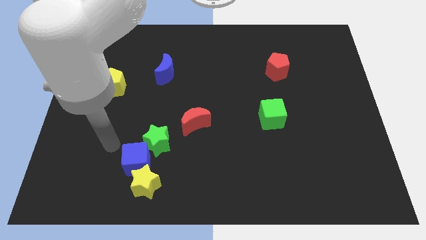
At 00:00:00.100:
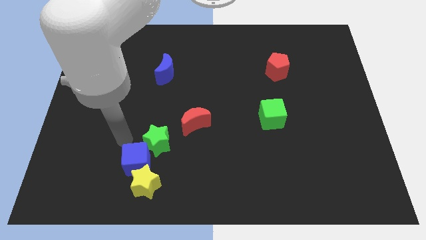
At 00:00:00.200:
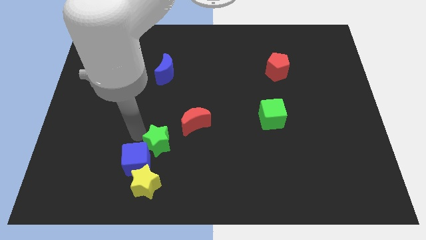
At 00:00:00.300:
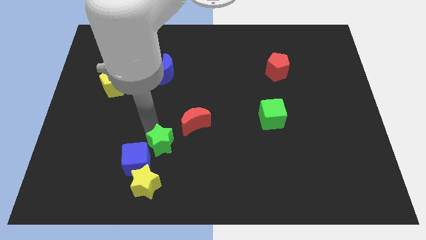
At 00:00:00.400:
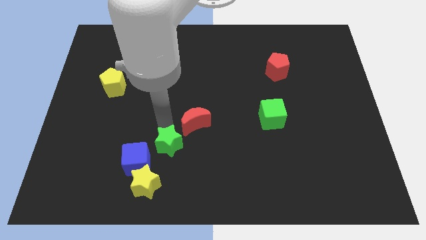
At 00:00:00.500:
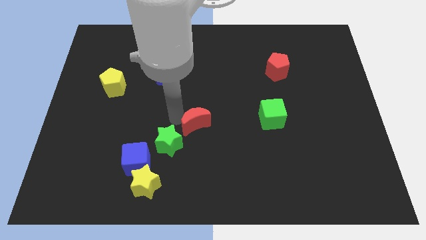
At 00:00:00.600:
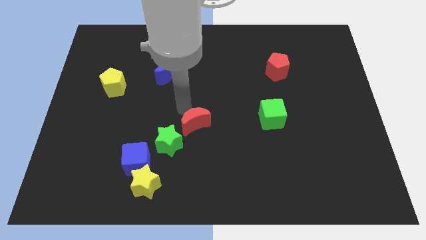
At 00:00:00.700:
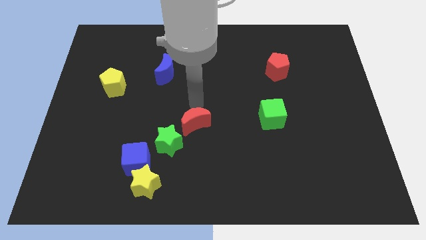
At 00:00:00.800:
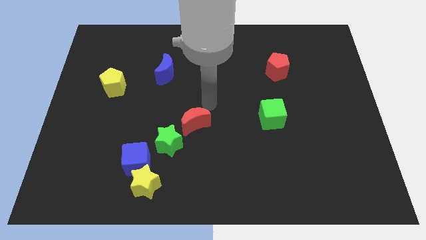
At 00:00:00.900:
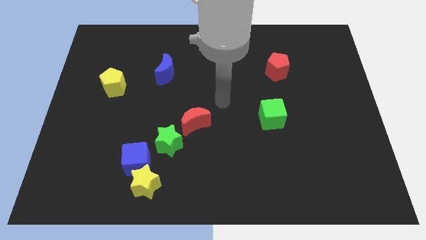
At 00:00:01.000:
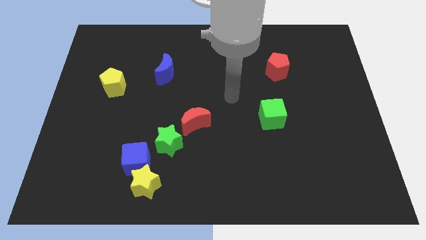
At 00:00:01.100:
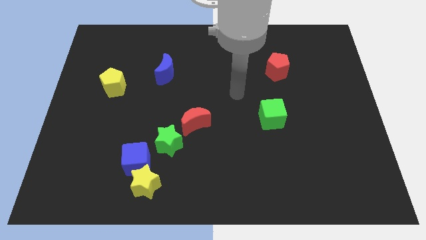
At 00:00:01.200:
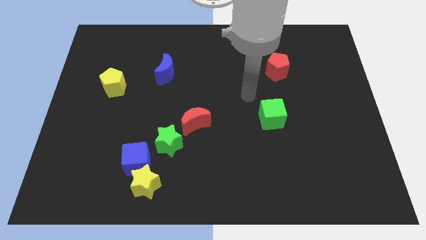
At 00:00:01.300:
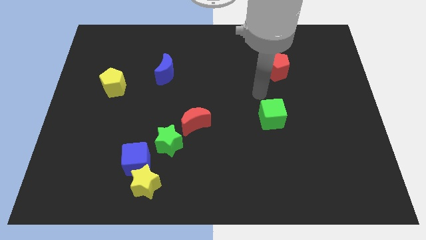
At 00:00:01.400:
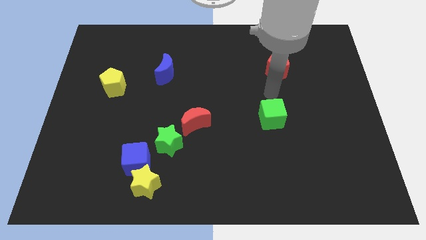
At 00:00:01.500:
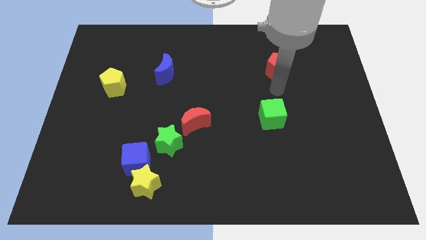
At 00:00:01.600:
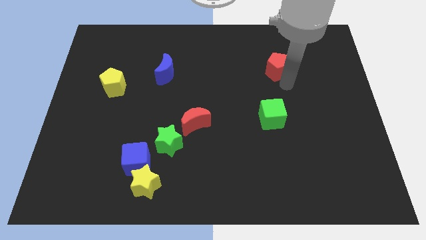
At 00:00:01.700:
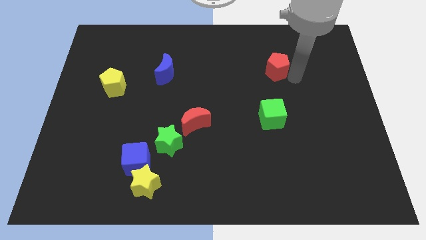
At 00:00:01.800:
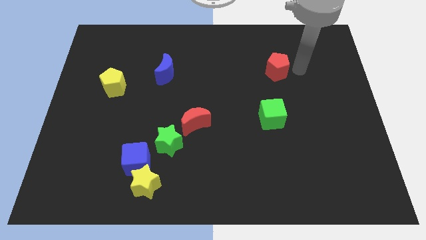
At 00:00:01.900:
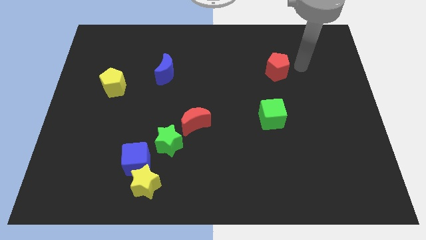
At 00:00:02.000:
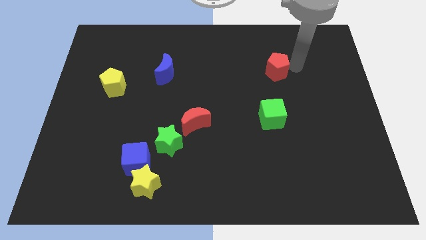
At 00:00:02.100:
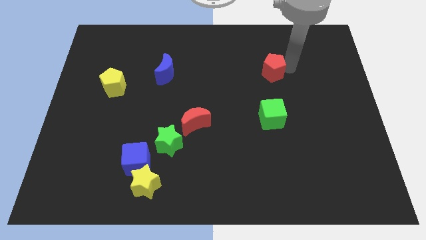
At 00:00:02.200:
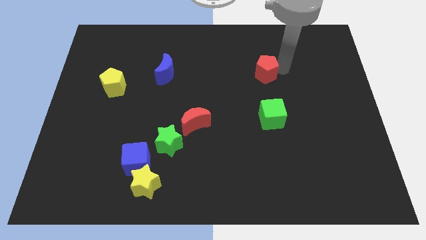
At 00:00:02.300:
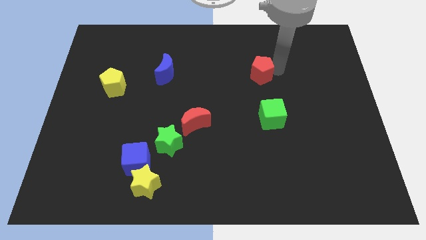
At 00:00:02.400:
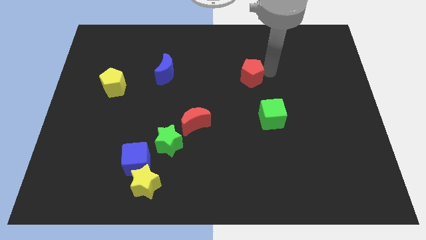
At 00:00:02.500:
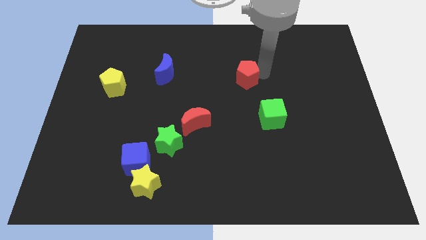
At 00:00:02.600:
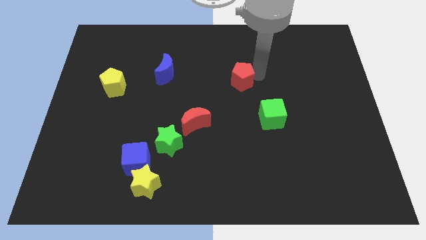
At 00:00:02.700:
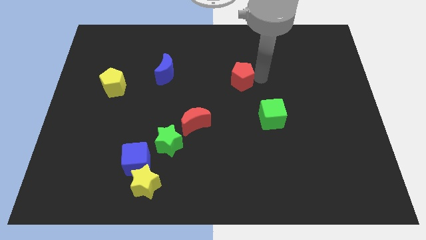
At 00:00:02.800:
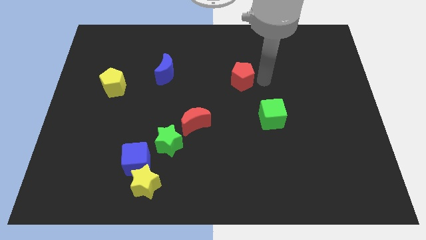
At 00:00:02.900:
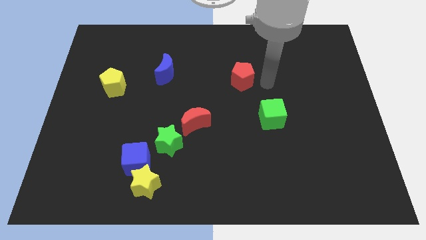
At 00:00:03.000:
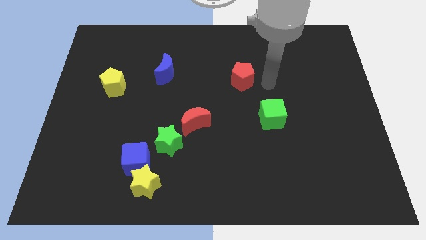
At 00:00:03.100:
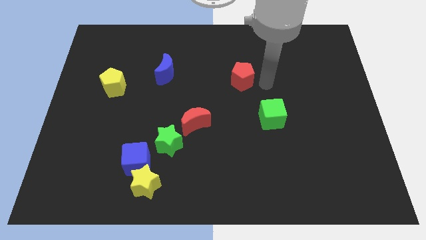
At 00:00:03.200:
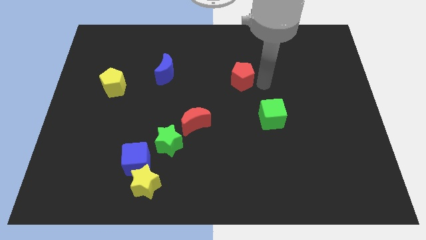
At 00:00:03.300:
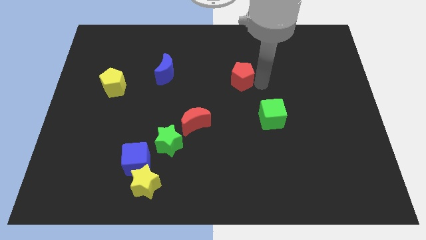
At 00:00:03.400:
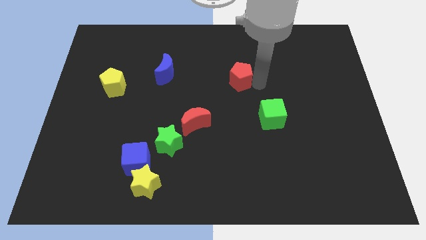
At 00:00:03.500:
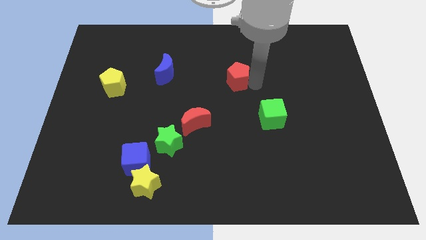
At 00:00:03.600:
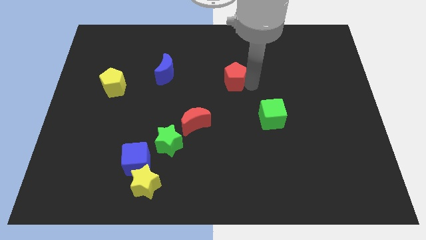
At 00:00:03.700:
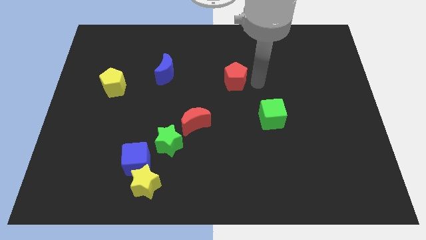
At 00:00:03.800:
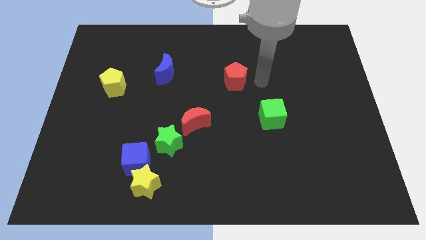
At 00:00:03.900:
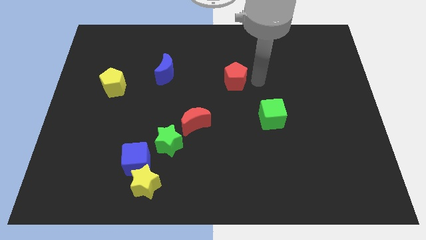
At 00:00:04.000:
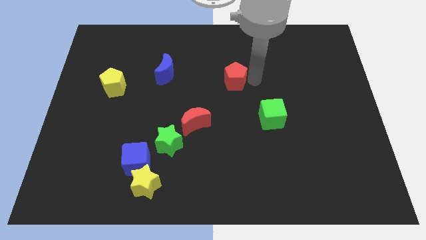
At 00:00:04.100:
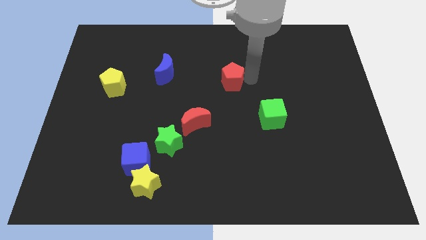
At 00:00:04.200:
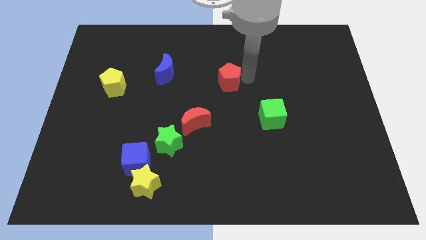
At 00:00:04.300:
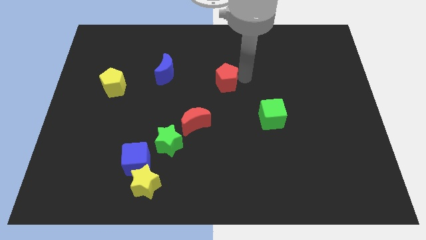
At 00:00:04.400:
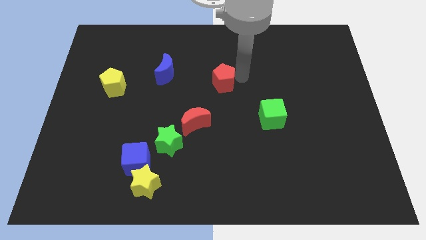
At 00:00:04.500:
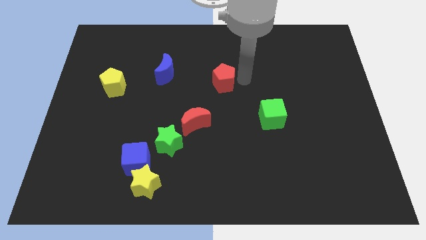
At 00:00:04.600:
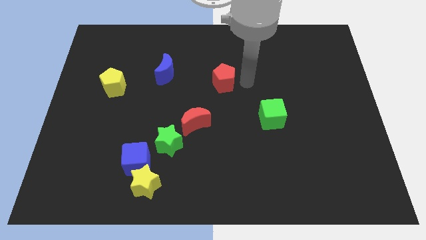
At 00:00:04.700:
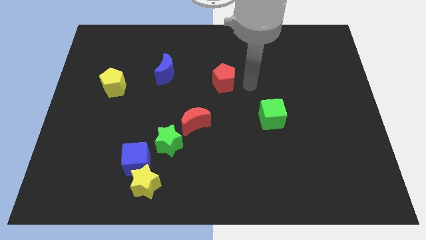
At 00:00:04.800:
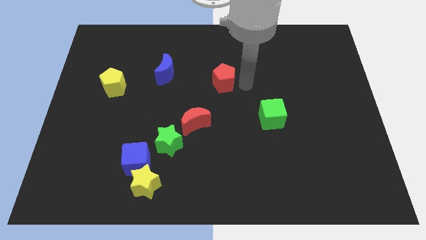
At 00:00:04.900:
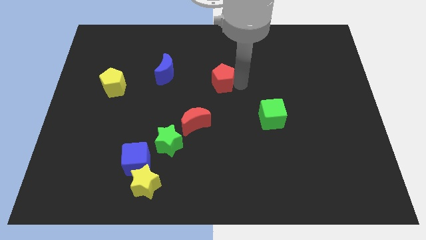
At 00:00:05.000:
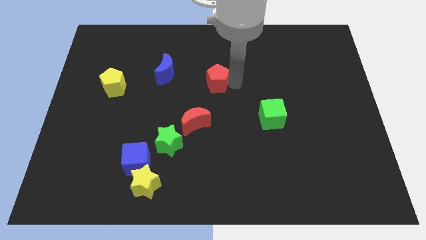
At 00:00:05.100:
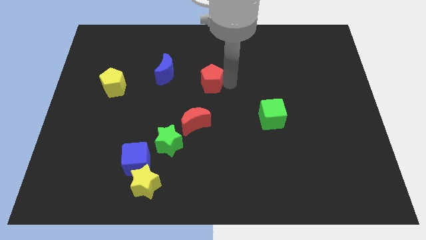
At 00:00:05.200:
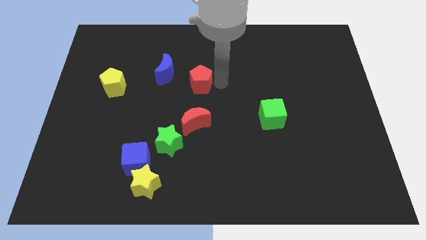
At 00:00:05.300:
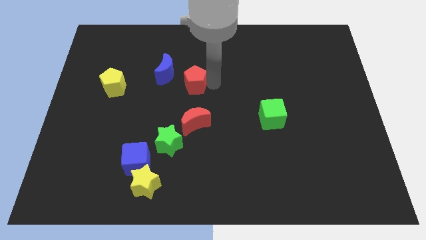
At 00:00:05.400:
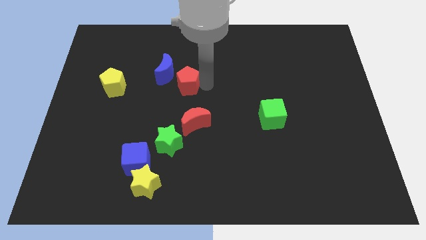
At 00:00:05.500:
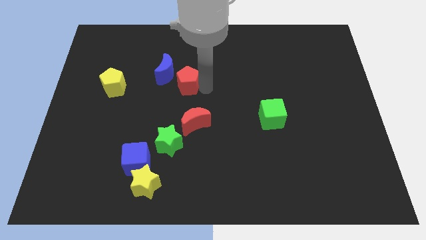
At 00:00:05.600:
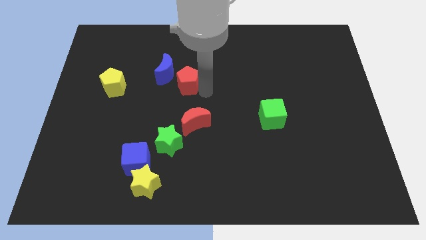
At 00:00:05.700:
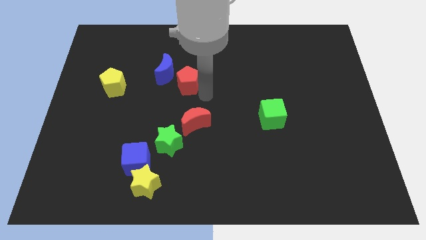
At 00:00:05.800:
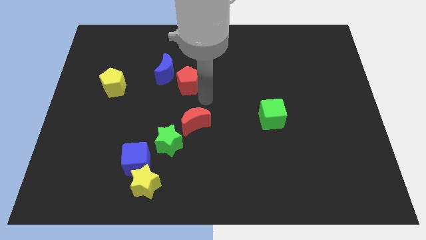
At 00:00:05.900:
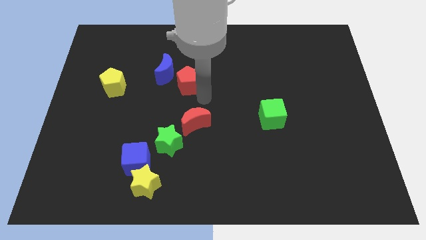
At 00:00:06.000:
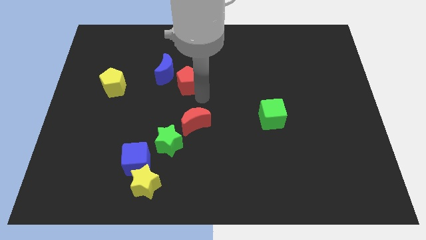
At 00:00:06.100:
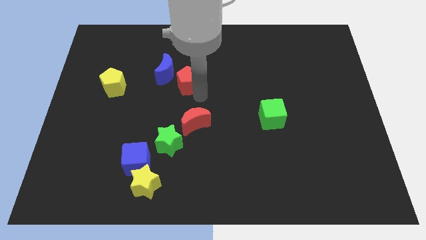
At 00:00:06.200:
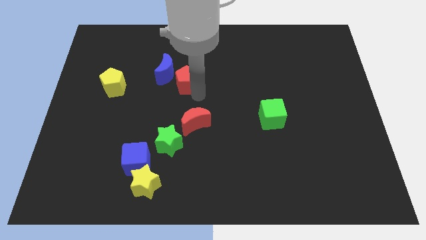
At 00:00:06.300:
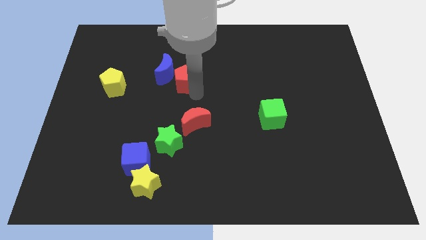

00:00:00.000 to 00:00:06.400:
put the red pentagon close to the blue moon

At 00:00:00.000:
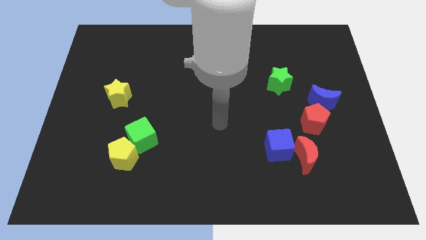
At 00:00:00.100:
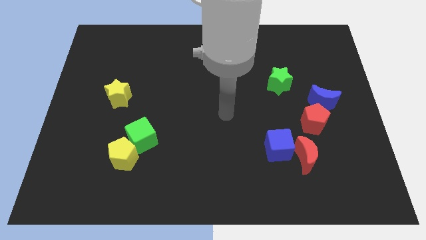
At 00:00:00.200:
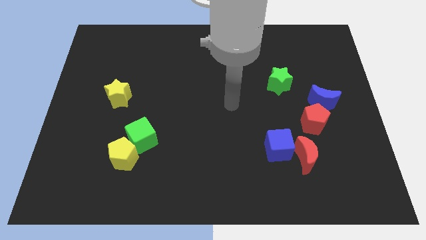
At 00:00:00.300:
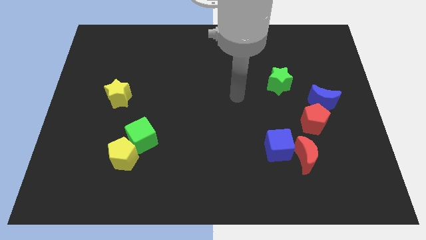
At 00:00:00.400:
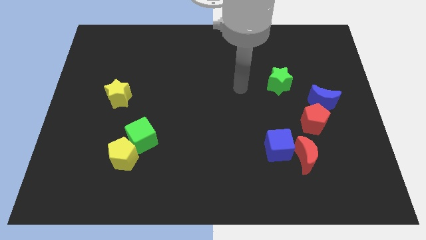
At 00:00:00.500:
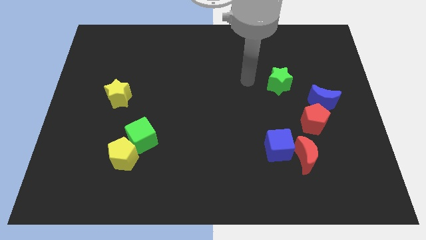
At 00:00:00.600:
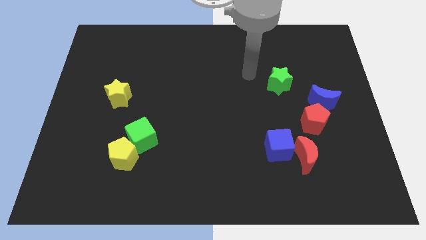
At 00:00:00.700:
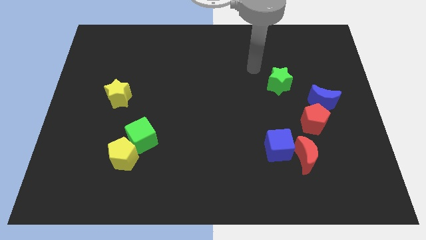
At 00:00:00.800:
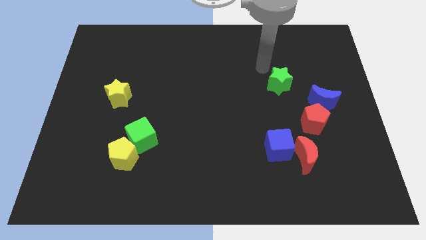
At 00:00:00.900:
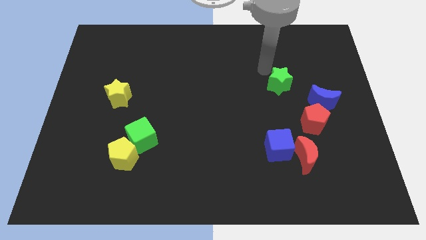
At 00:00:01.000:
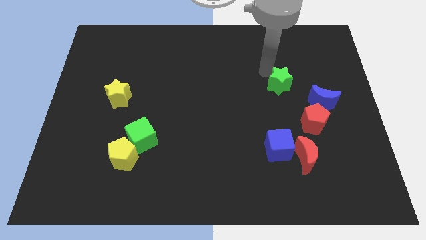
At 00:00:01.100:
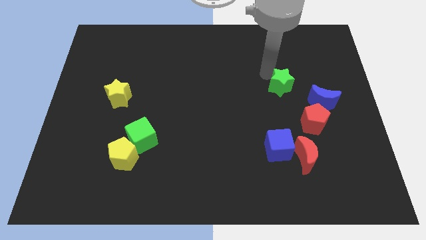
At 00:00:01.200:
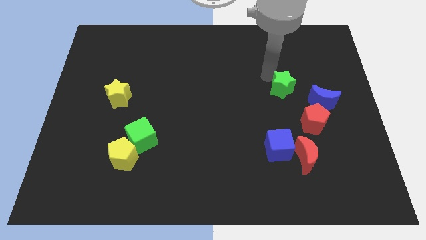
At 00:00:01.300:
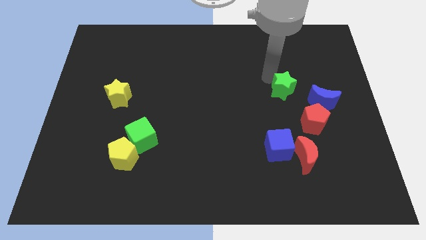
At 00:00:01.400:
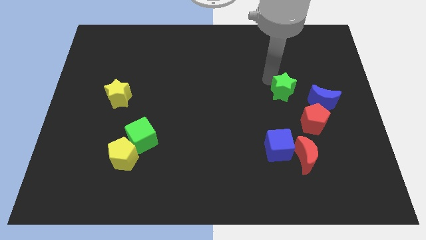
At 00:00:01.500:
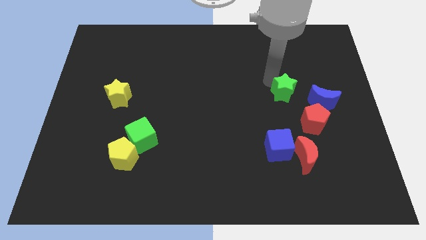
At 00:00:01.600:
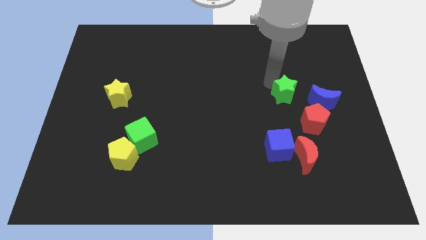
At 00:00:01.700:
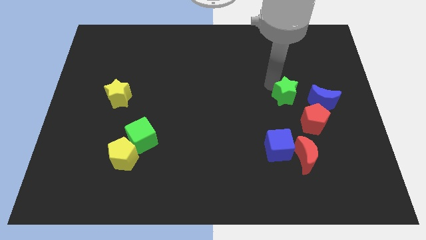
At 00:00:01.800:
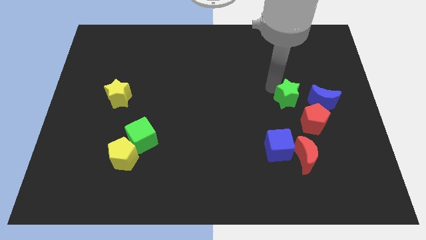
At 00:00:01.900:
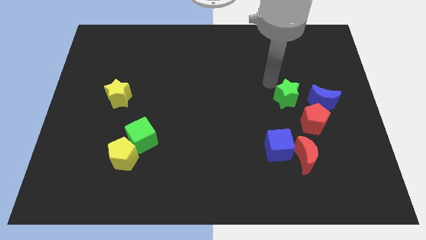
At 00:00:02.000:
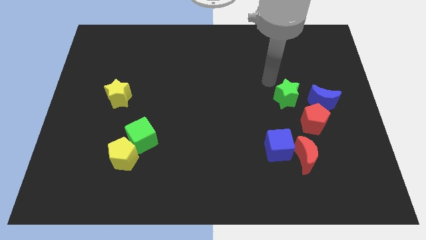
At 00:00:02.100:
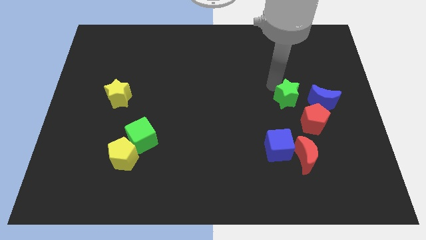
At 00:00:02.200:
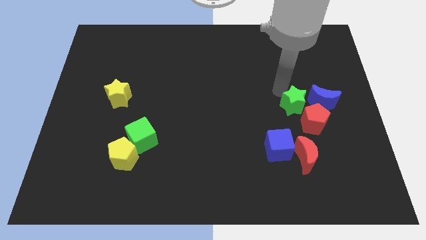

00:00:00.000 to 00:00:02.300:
slide the green star close to the red pentagon
